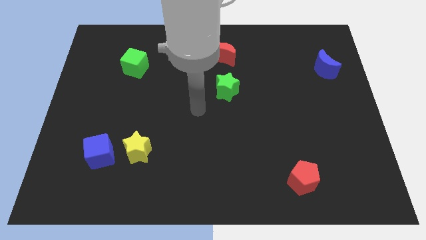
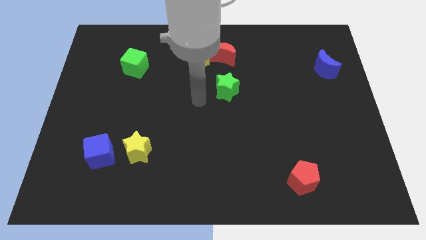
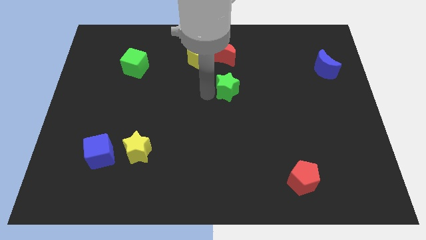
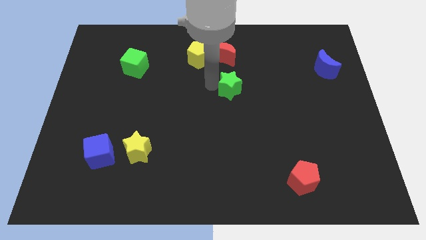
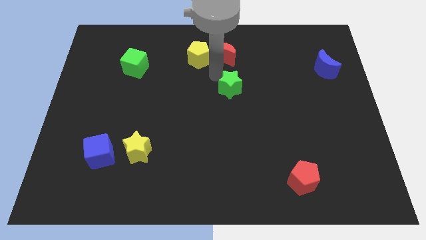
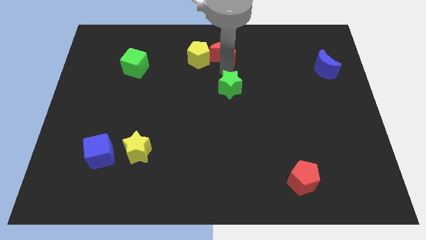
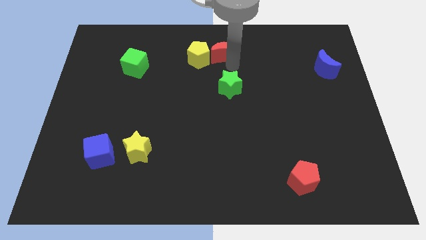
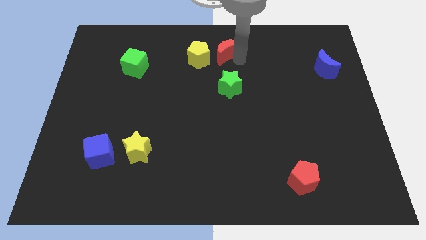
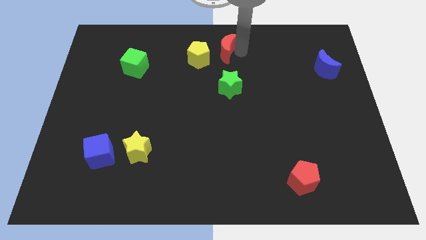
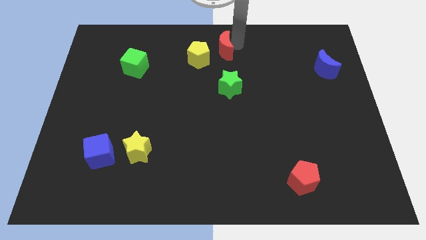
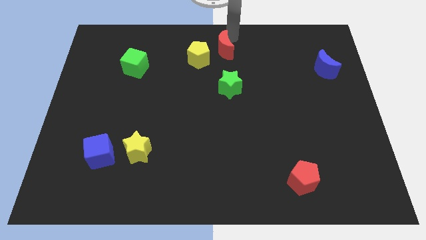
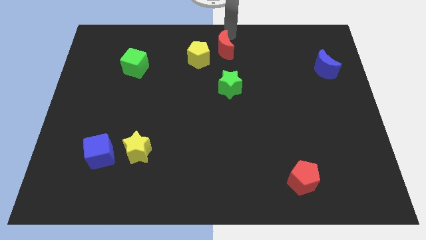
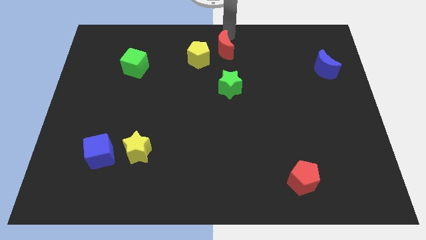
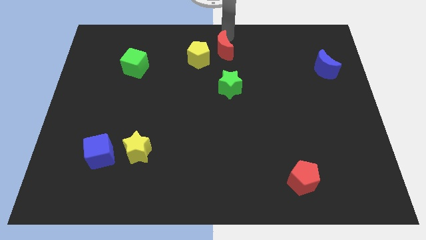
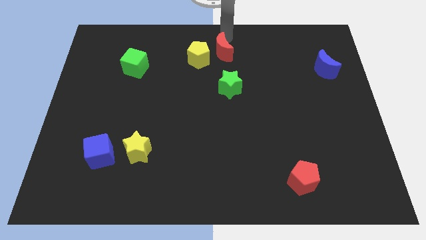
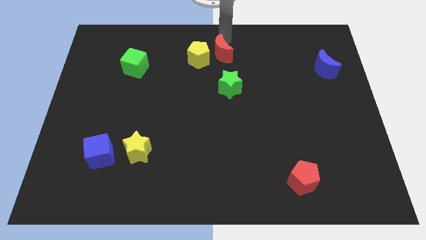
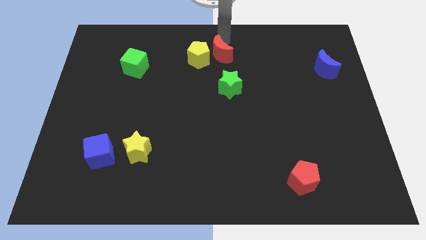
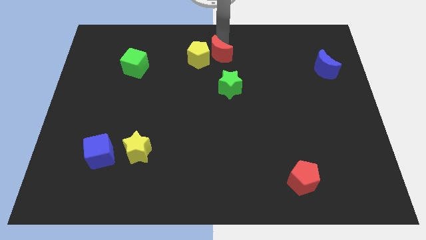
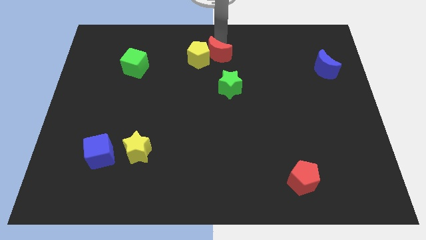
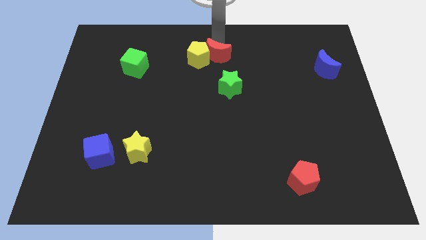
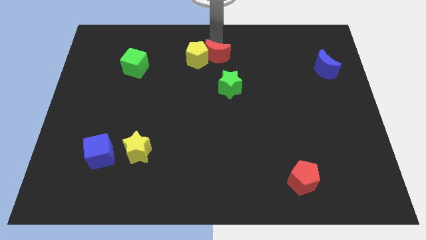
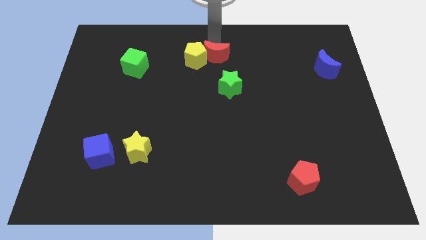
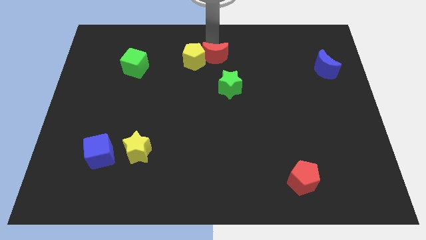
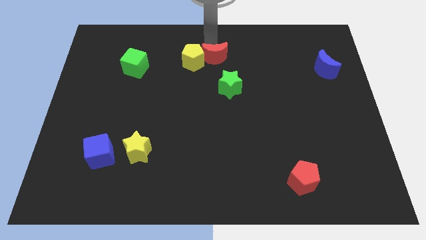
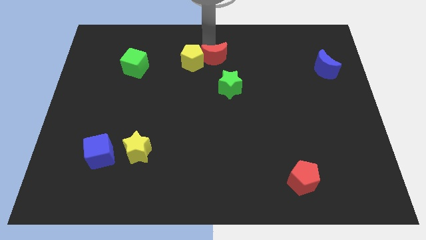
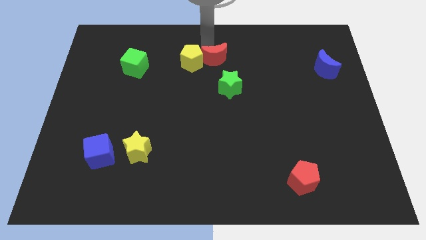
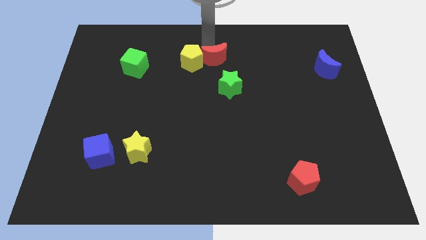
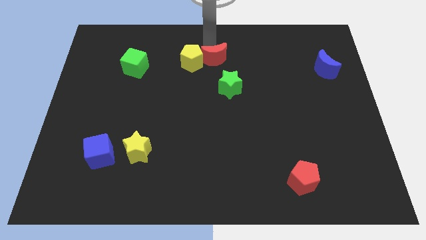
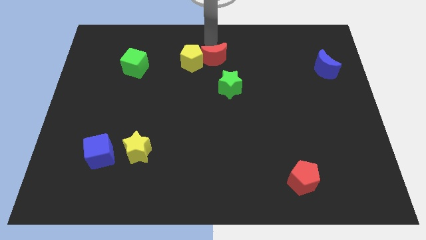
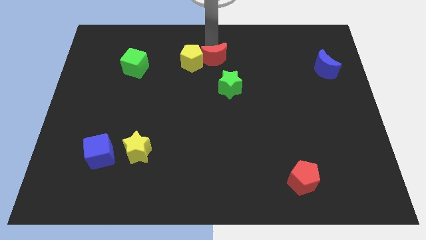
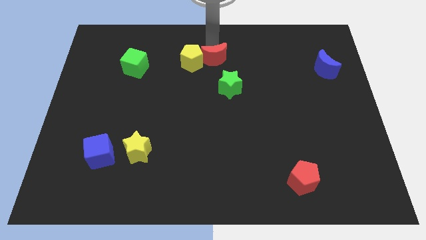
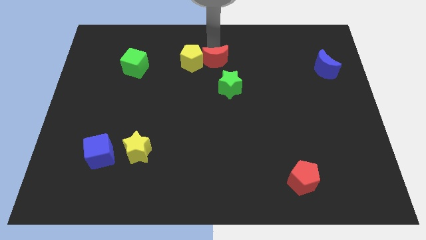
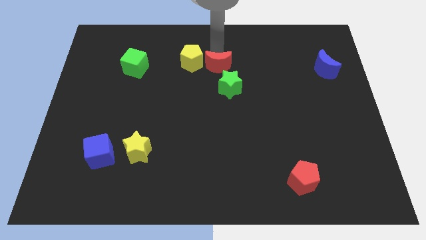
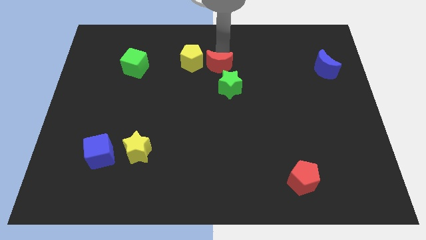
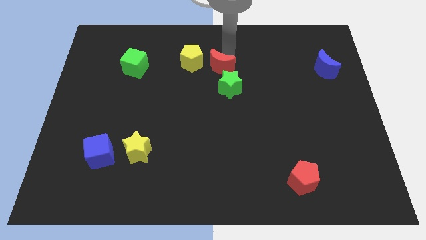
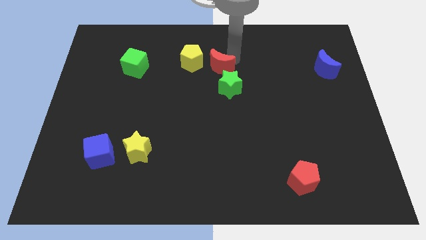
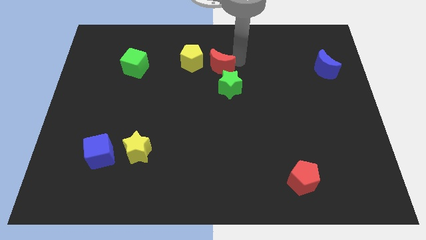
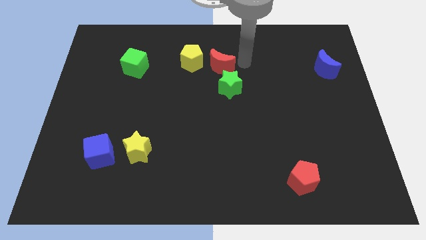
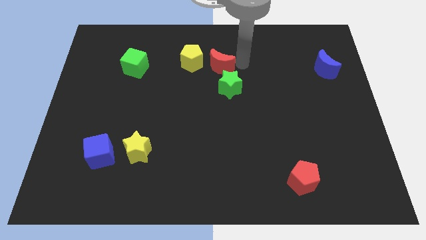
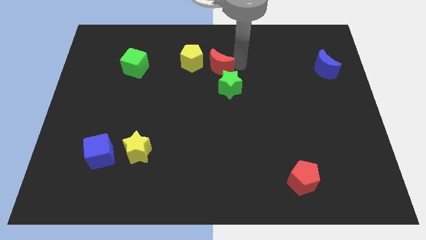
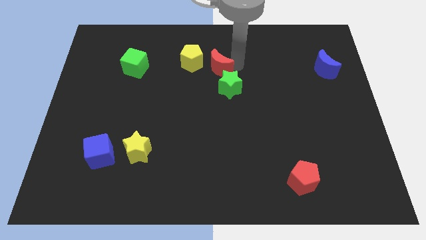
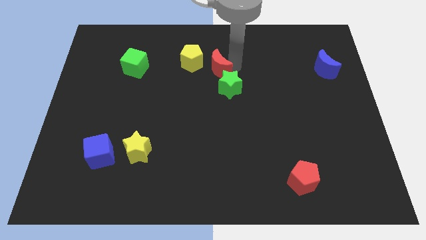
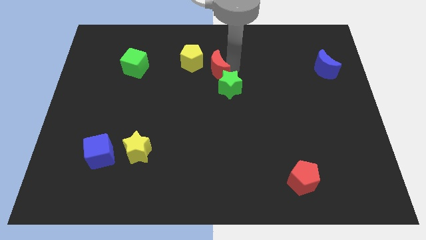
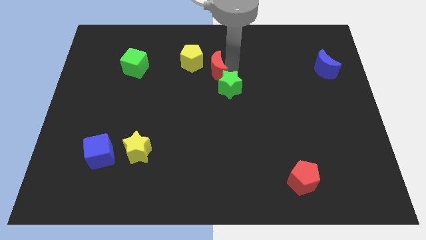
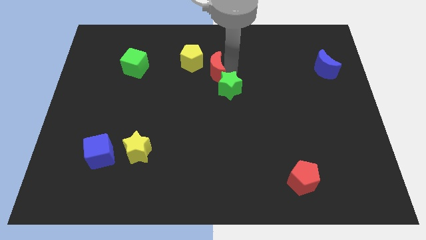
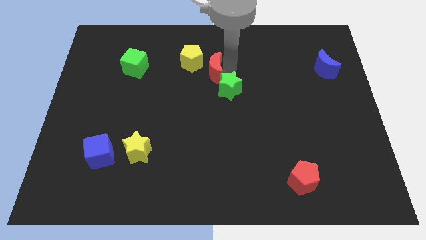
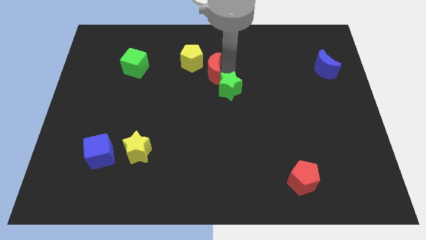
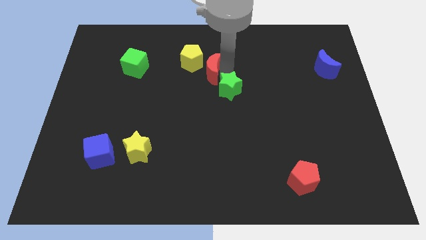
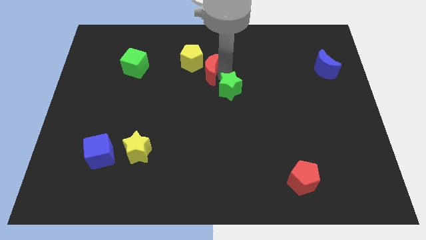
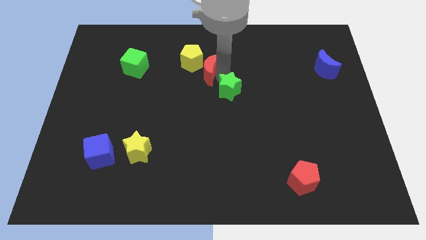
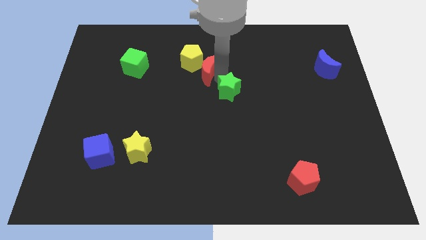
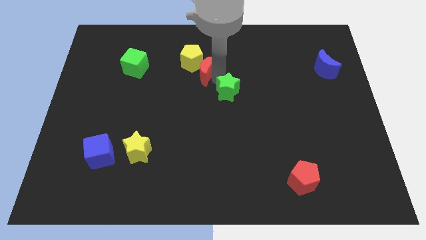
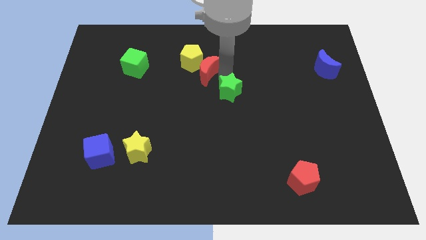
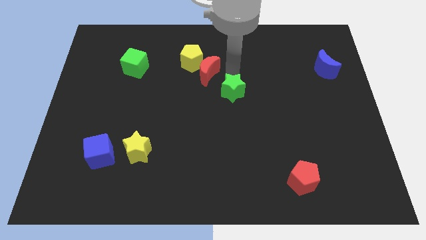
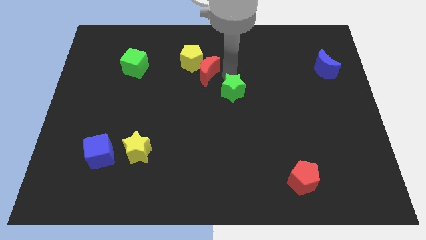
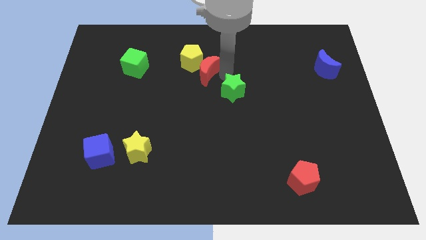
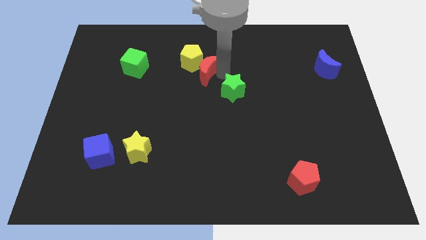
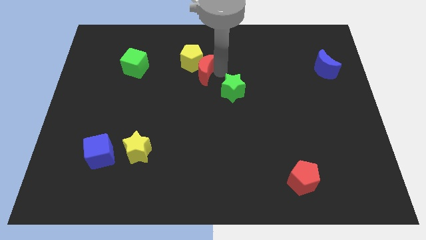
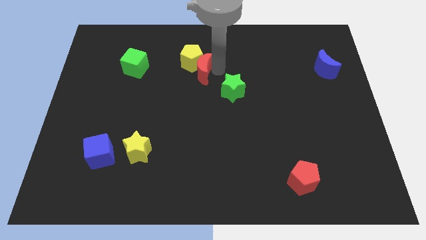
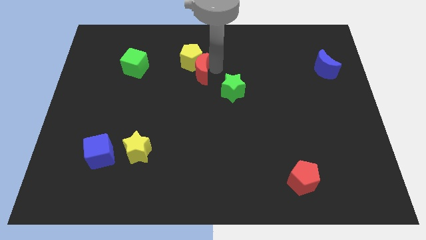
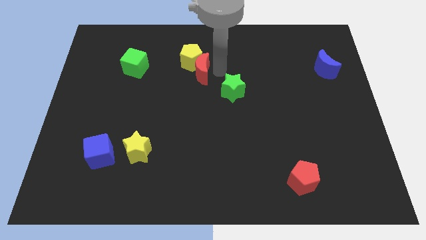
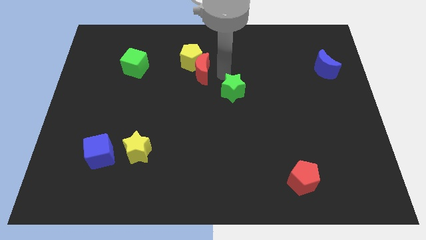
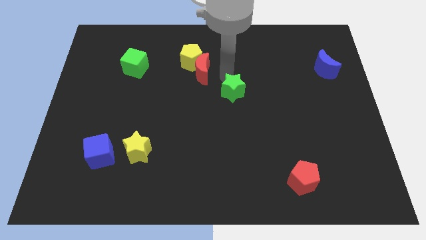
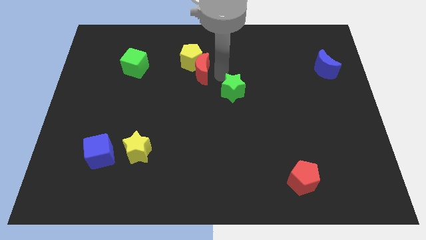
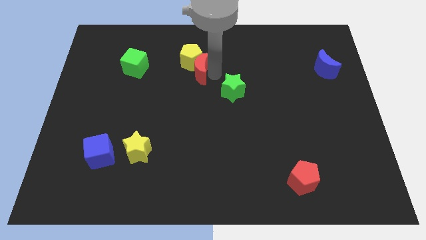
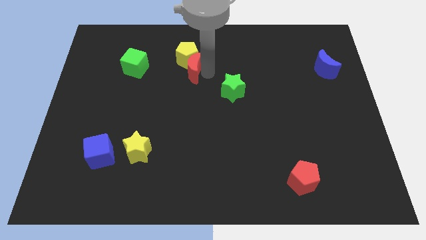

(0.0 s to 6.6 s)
slide the red moon to the right side of the green cube

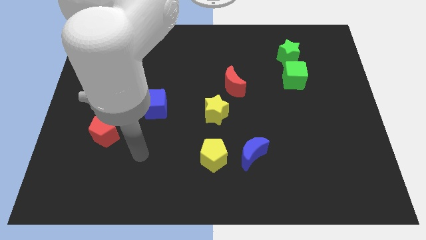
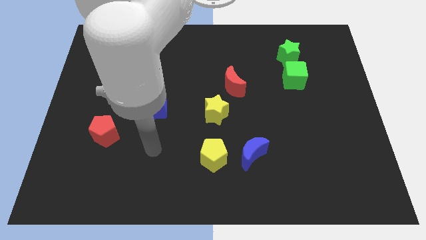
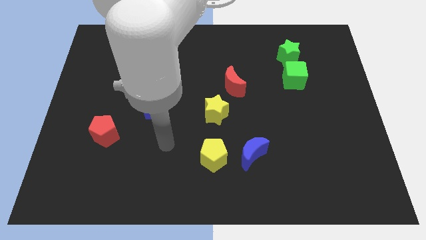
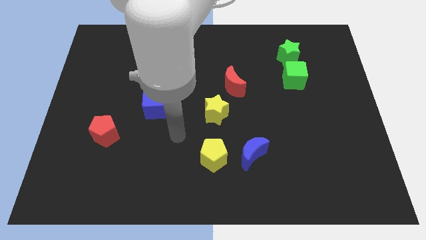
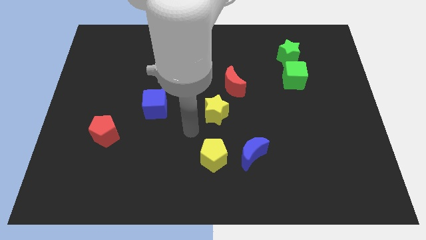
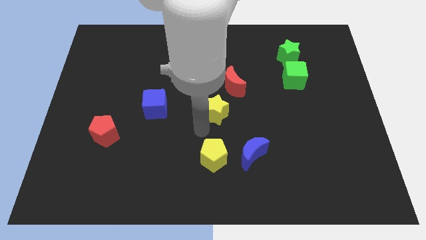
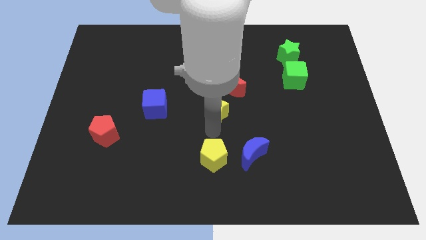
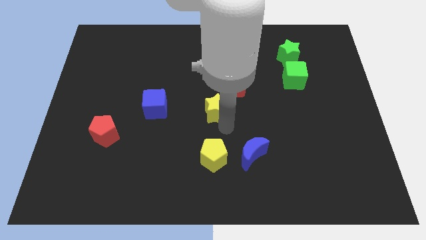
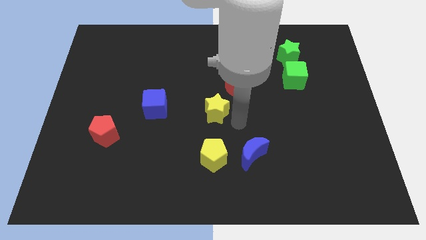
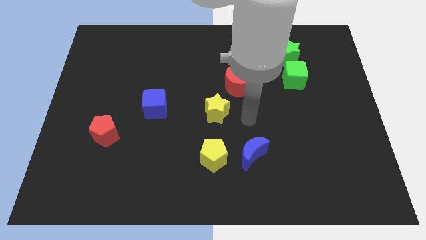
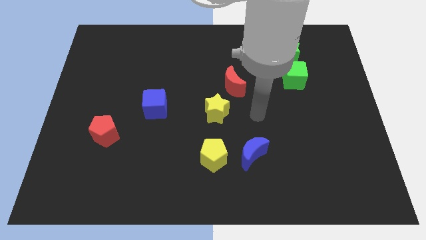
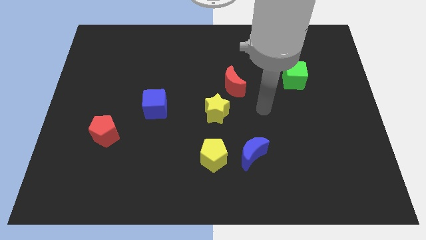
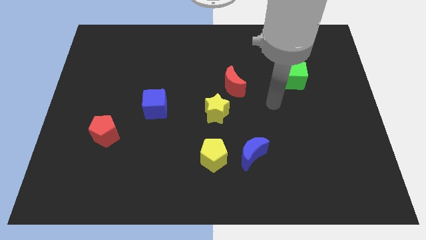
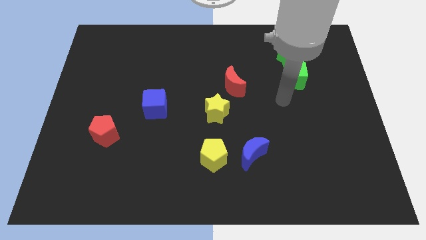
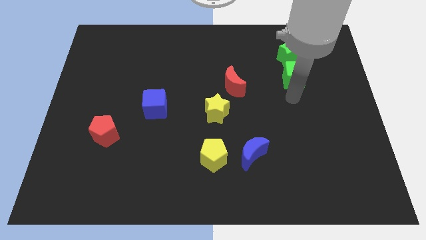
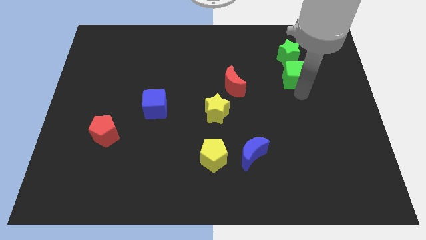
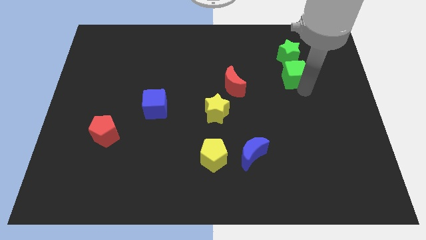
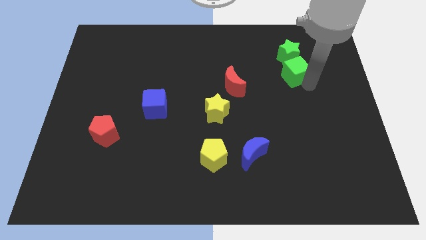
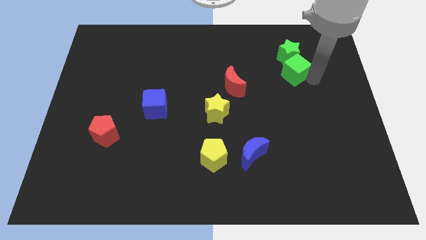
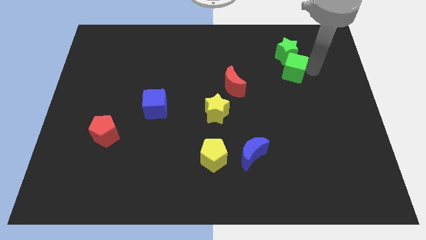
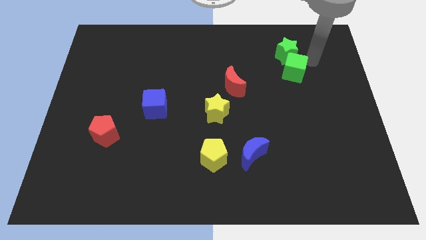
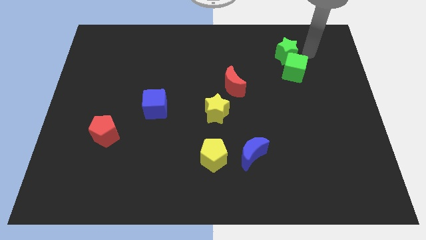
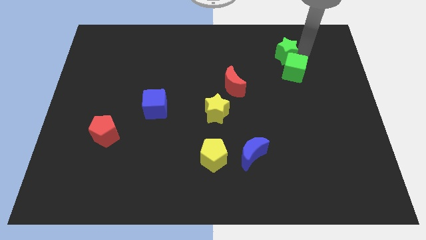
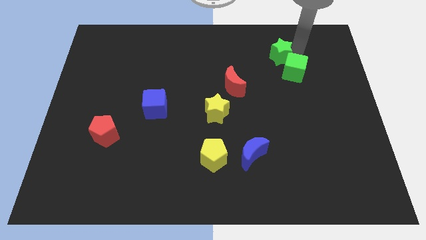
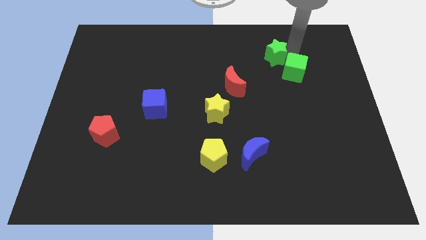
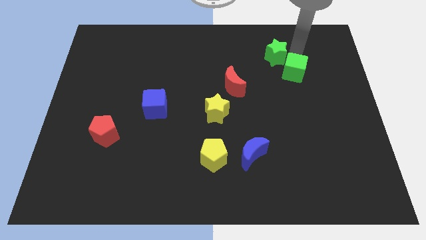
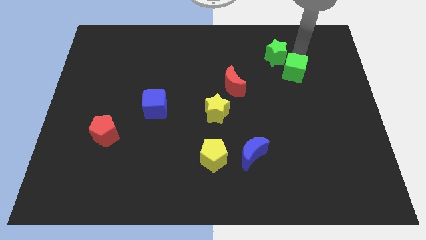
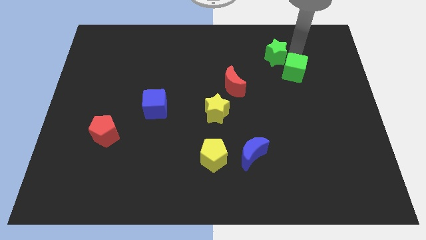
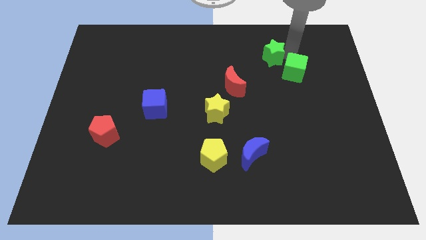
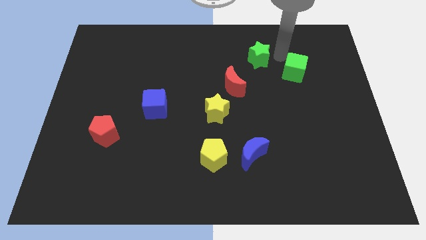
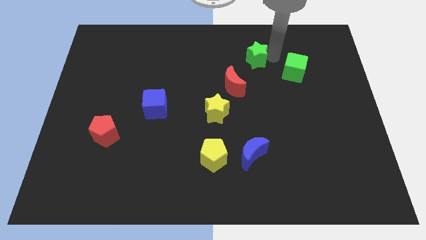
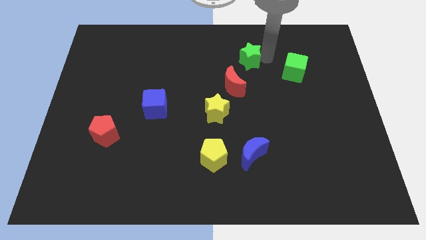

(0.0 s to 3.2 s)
slide the green star above the red moon
